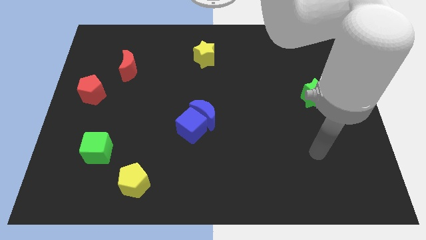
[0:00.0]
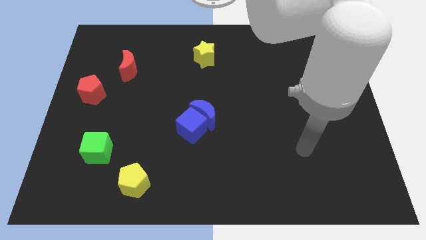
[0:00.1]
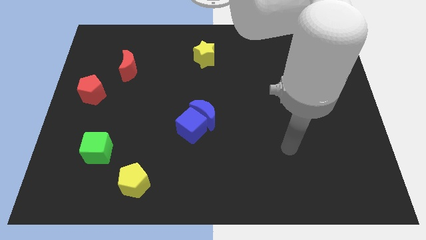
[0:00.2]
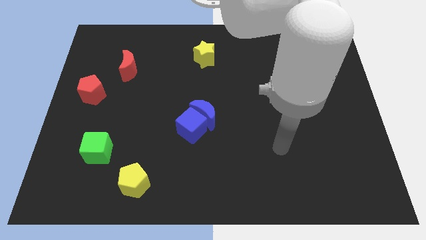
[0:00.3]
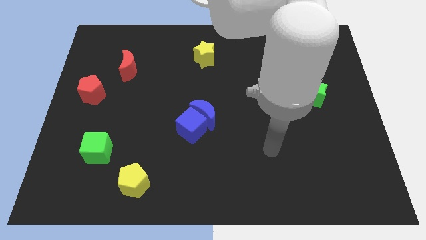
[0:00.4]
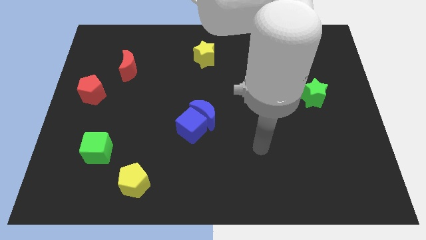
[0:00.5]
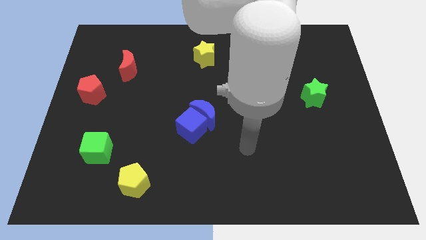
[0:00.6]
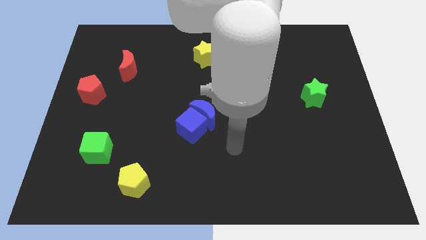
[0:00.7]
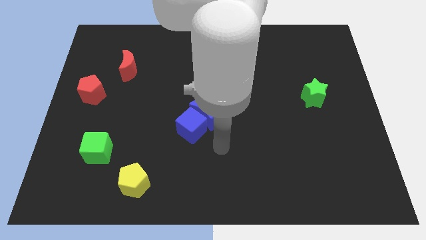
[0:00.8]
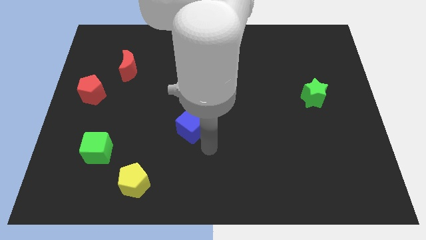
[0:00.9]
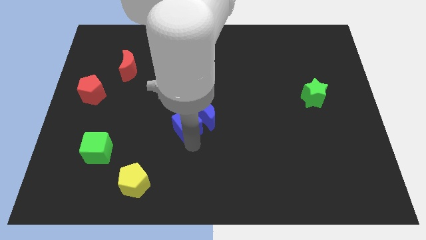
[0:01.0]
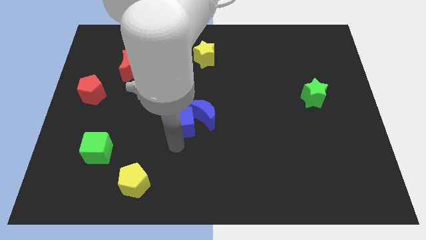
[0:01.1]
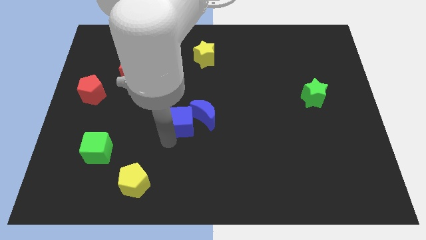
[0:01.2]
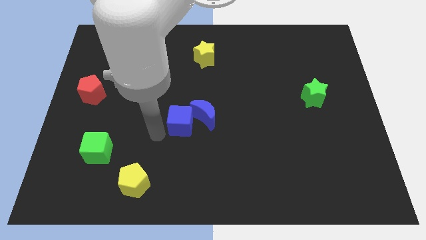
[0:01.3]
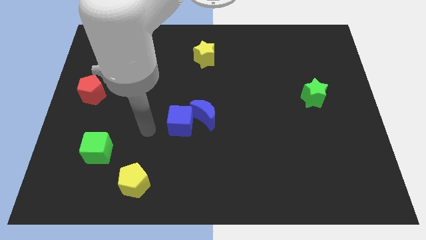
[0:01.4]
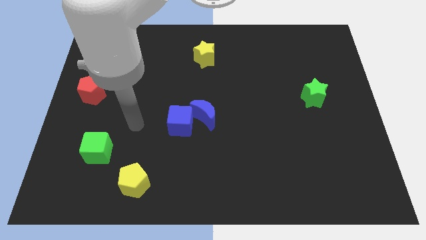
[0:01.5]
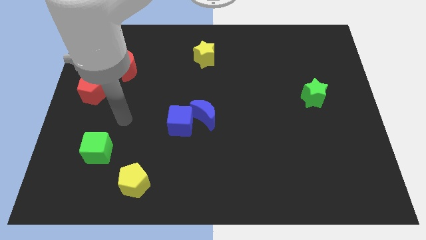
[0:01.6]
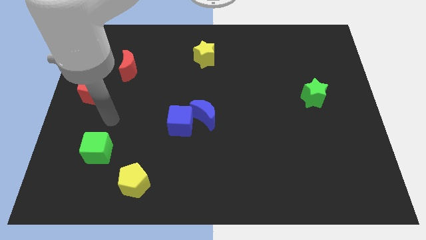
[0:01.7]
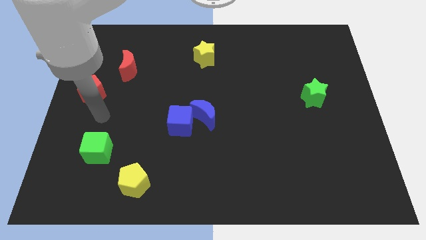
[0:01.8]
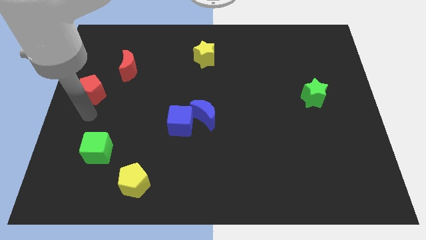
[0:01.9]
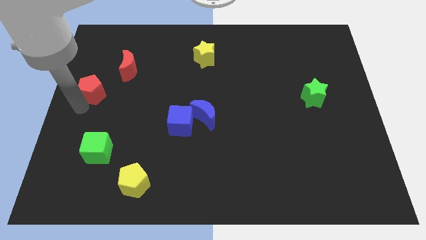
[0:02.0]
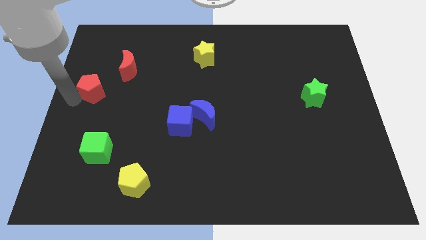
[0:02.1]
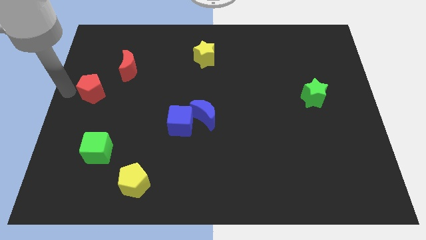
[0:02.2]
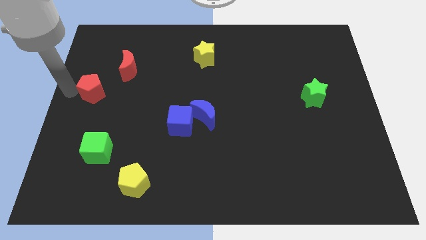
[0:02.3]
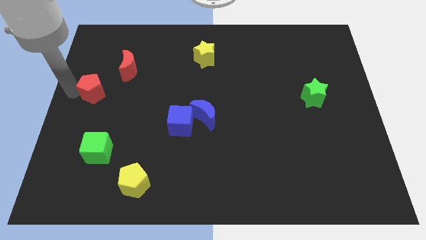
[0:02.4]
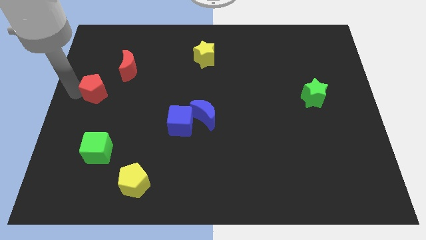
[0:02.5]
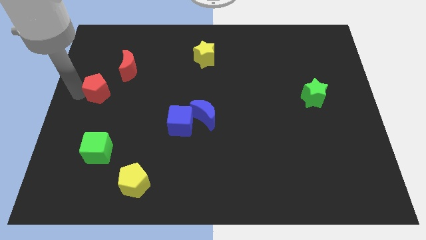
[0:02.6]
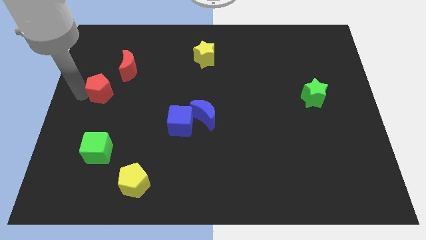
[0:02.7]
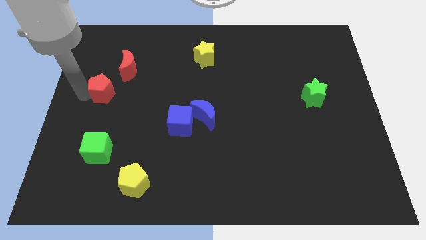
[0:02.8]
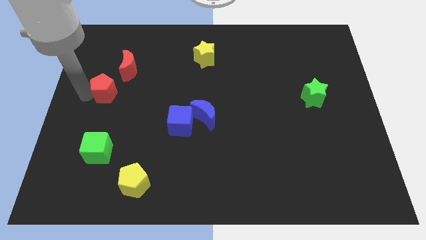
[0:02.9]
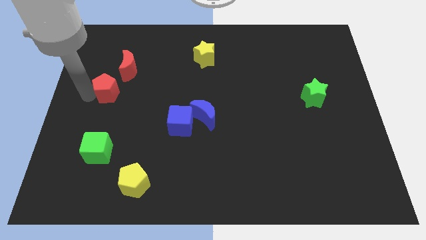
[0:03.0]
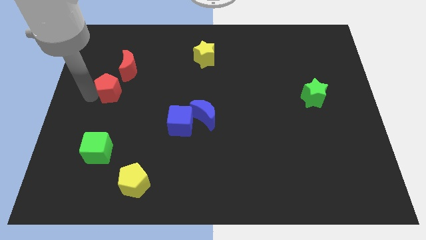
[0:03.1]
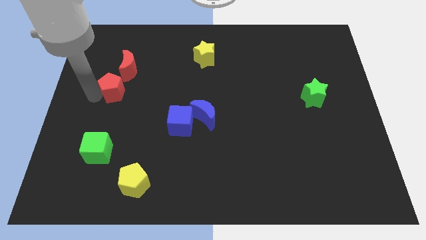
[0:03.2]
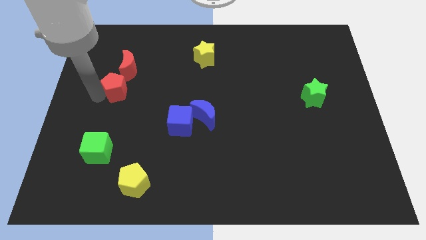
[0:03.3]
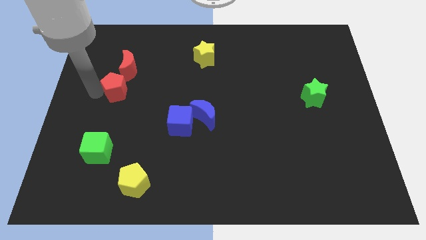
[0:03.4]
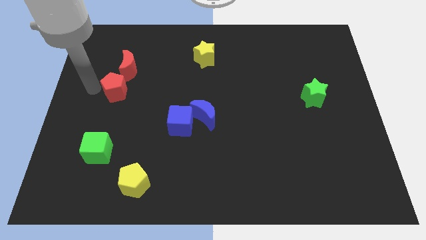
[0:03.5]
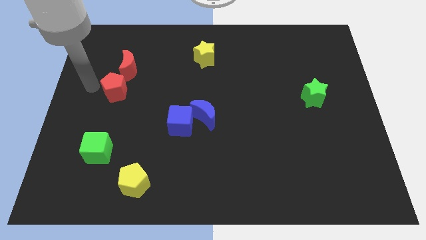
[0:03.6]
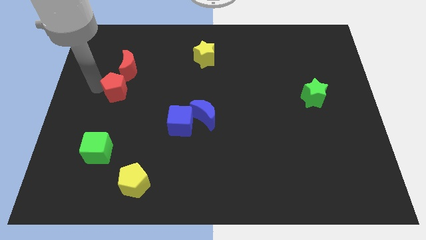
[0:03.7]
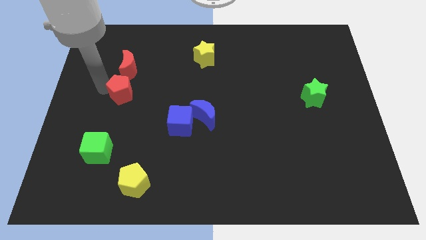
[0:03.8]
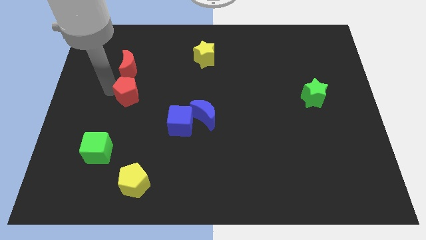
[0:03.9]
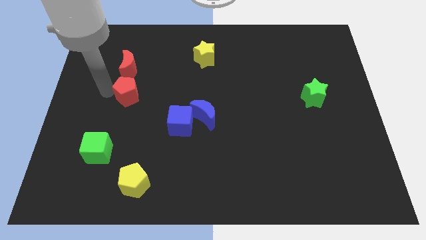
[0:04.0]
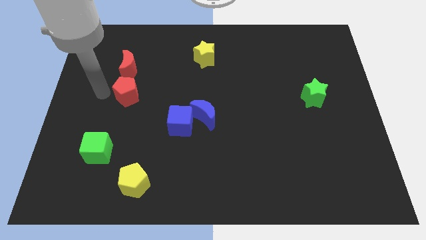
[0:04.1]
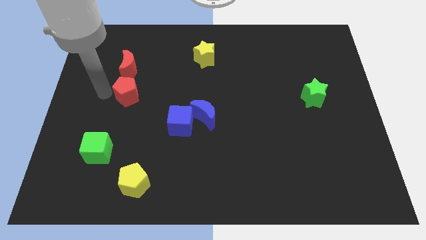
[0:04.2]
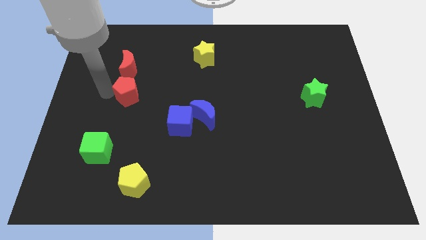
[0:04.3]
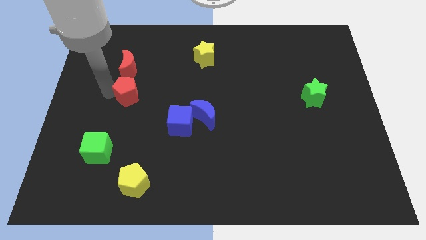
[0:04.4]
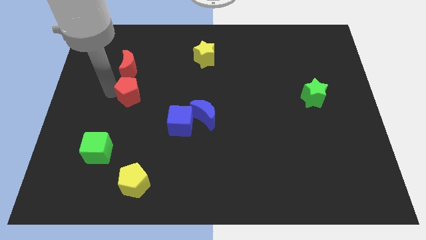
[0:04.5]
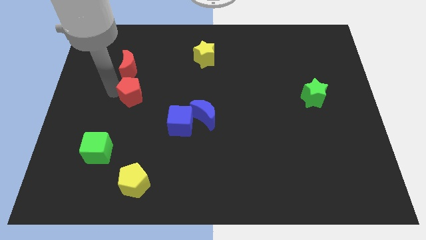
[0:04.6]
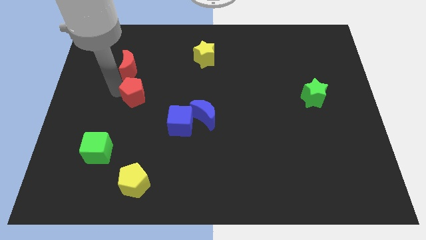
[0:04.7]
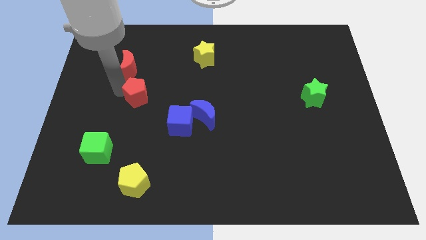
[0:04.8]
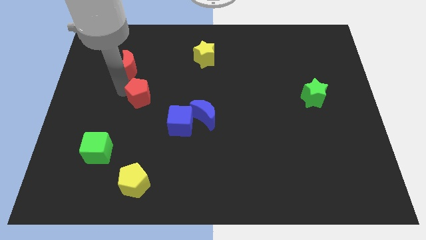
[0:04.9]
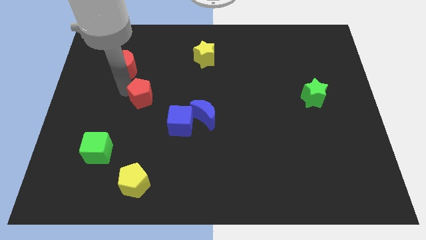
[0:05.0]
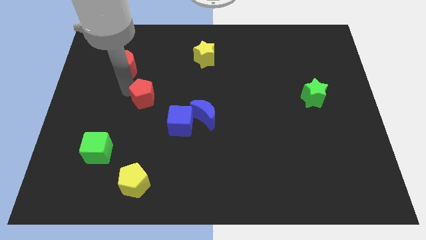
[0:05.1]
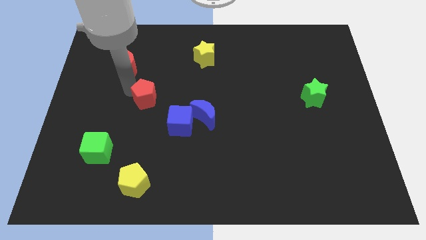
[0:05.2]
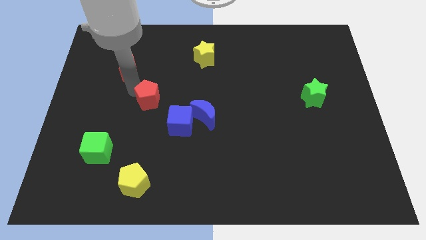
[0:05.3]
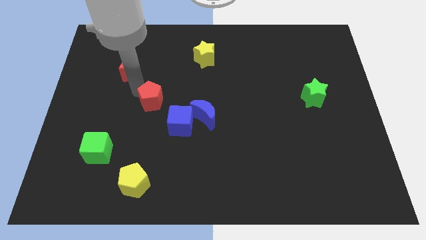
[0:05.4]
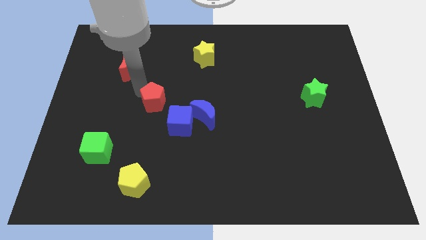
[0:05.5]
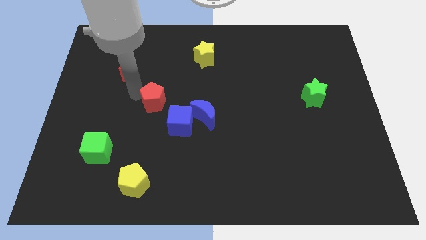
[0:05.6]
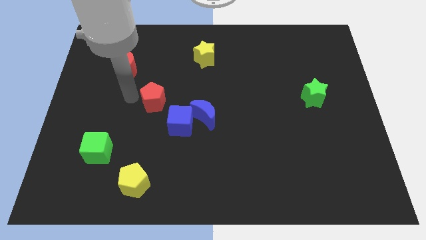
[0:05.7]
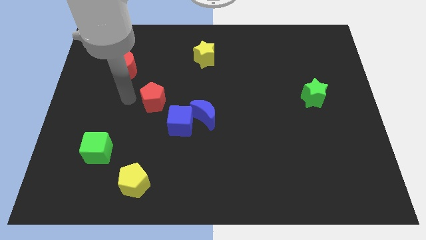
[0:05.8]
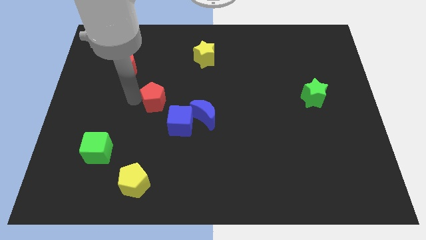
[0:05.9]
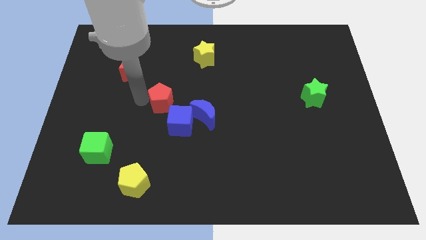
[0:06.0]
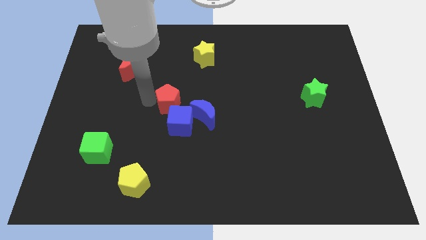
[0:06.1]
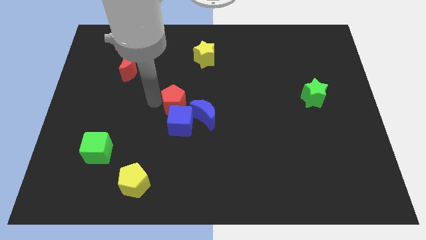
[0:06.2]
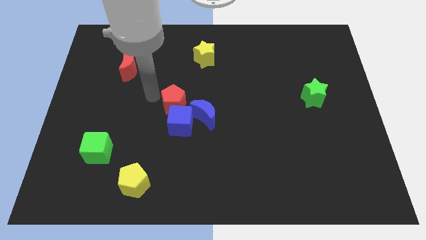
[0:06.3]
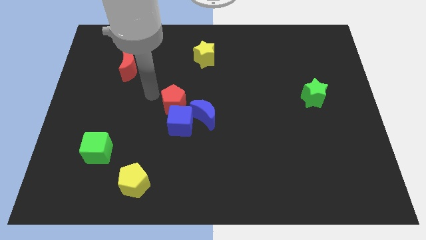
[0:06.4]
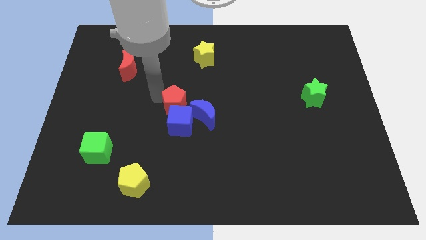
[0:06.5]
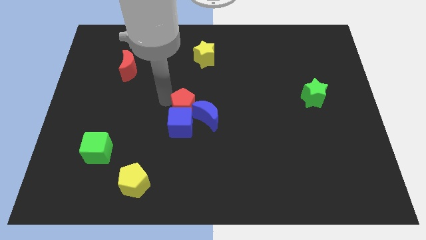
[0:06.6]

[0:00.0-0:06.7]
push the red pentagon close to the blue moon

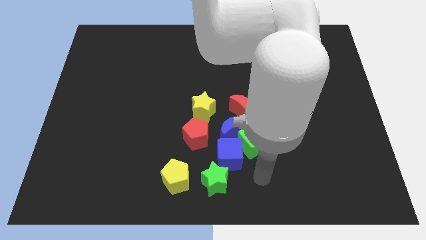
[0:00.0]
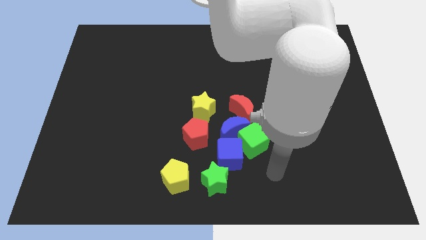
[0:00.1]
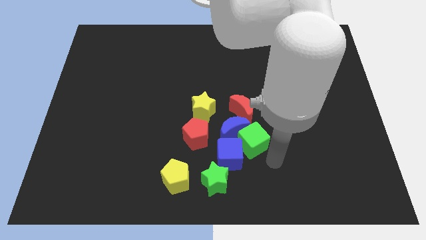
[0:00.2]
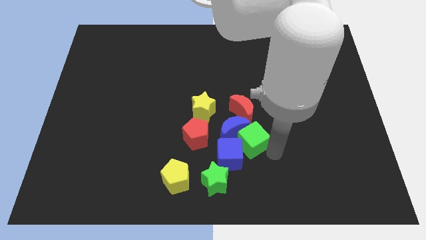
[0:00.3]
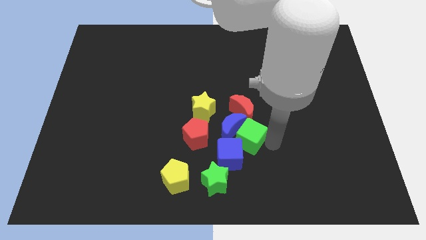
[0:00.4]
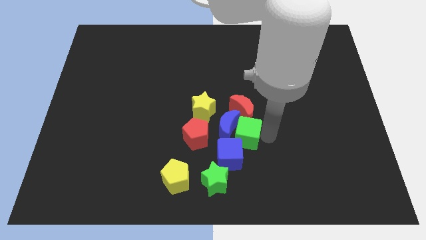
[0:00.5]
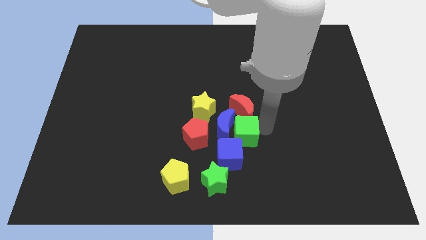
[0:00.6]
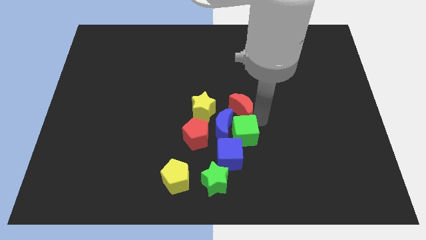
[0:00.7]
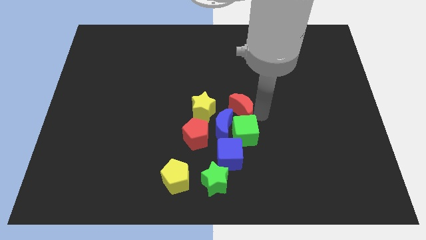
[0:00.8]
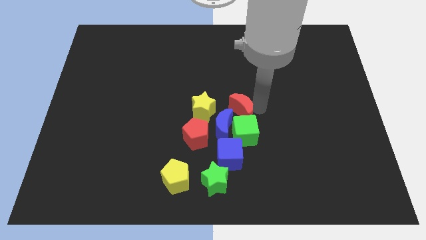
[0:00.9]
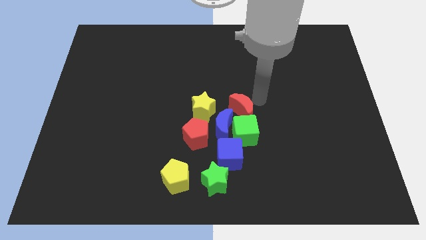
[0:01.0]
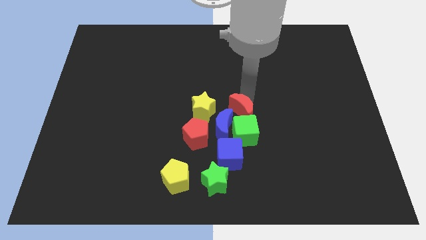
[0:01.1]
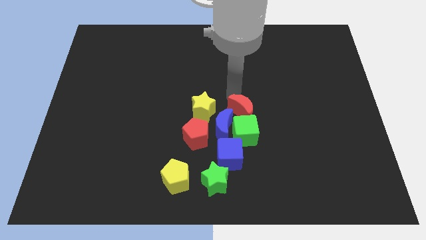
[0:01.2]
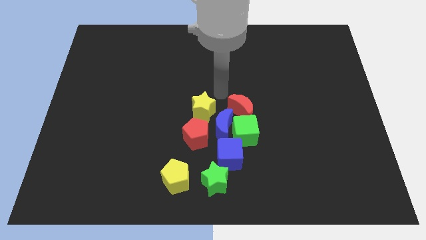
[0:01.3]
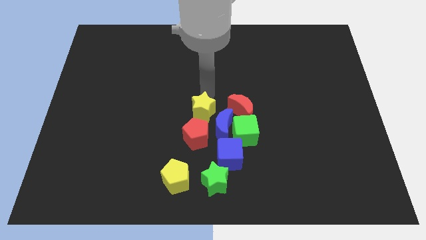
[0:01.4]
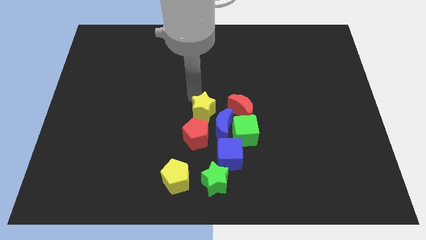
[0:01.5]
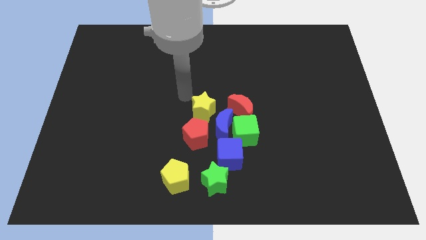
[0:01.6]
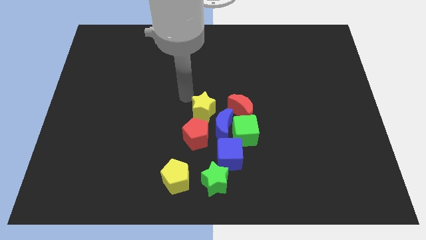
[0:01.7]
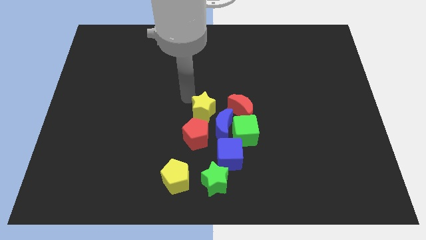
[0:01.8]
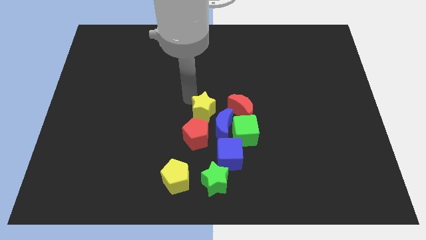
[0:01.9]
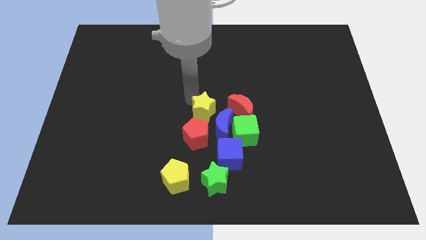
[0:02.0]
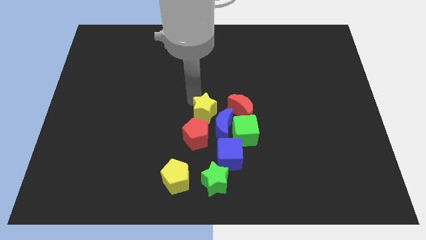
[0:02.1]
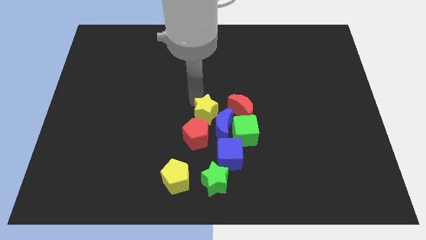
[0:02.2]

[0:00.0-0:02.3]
move the yellow star close to the blue moon
